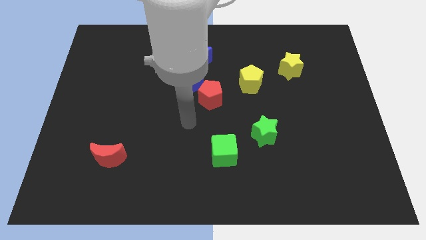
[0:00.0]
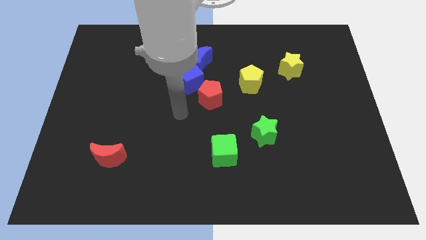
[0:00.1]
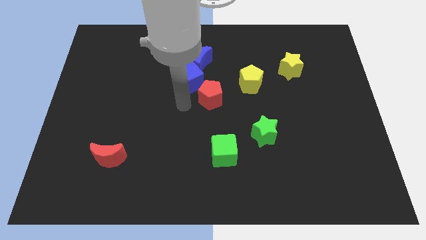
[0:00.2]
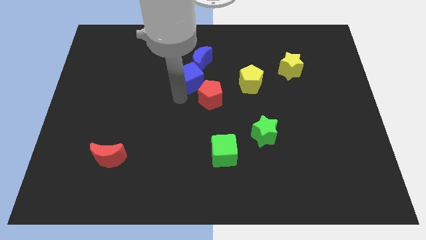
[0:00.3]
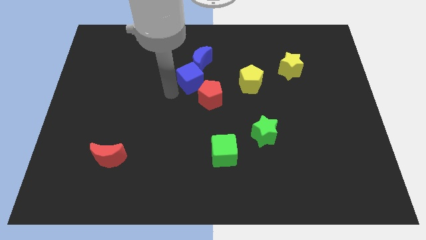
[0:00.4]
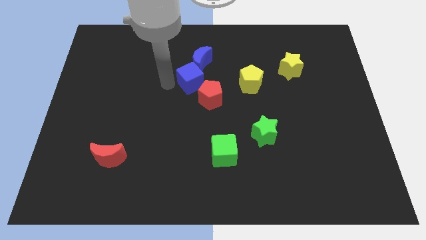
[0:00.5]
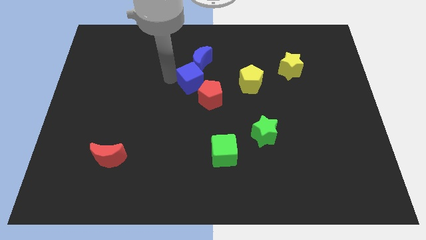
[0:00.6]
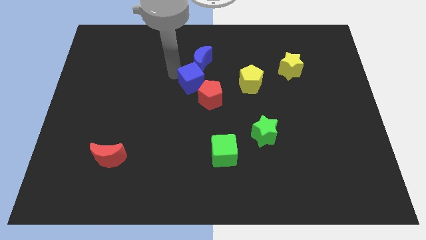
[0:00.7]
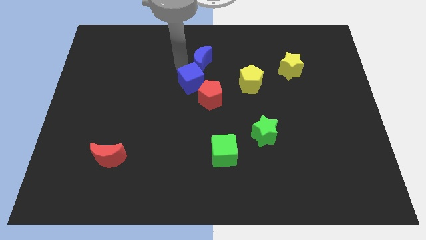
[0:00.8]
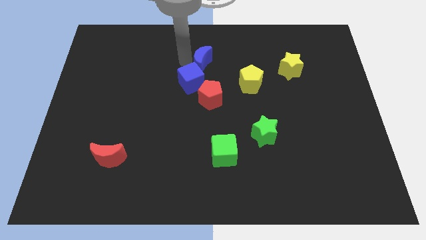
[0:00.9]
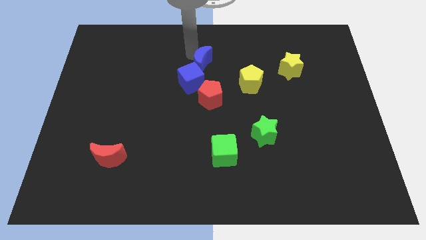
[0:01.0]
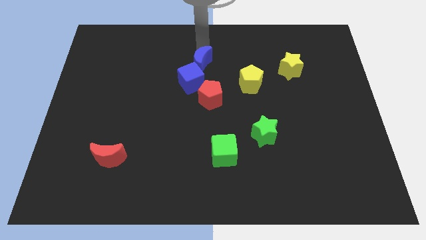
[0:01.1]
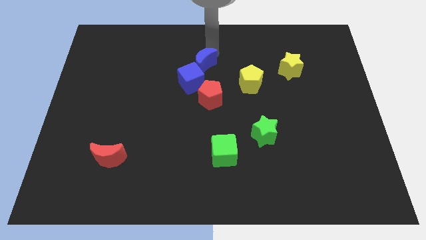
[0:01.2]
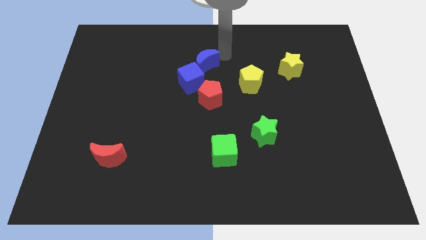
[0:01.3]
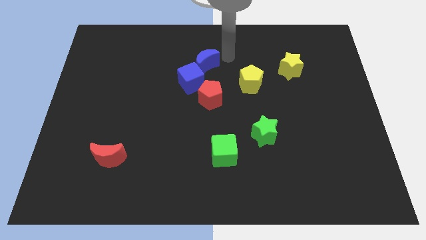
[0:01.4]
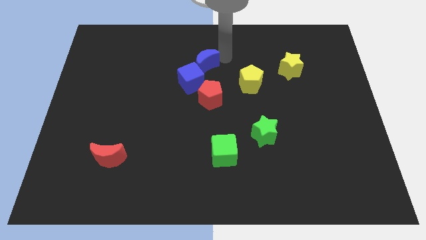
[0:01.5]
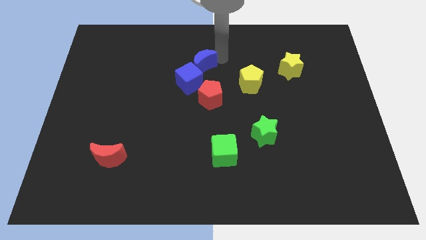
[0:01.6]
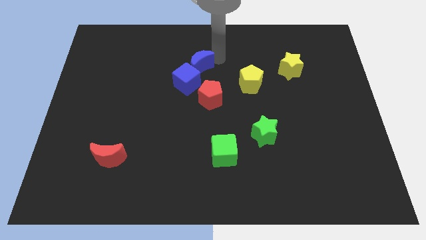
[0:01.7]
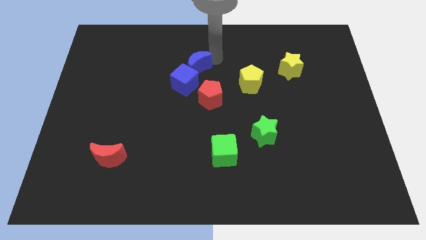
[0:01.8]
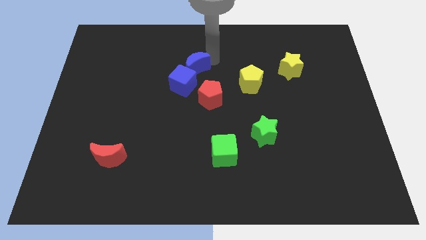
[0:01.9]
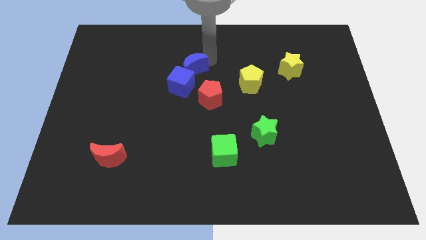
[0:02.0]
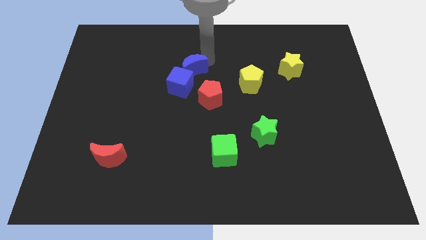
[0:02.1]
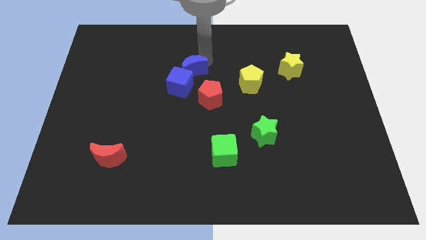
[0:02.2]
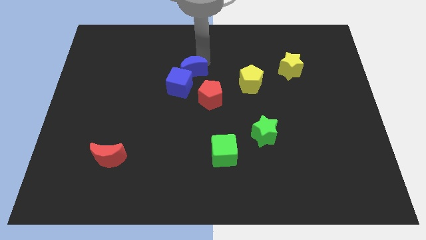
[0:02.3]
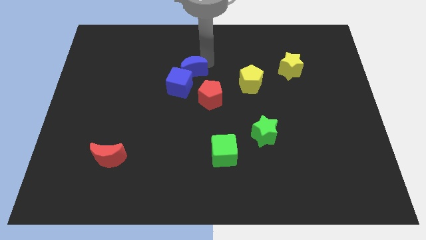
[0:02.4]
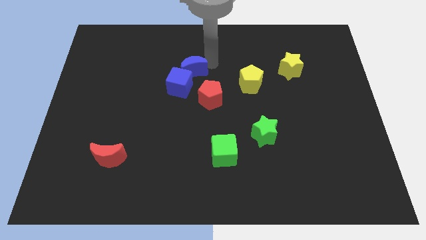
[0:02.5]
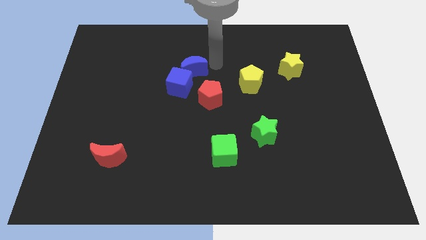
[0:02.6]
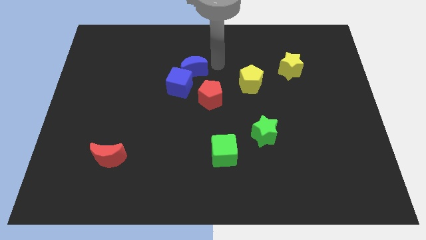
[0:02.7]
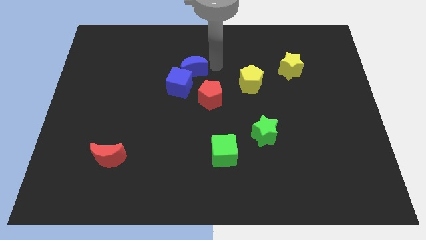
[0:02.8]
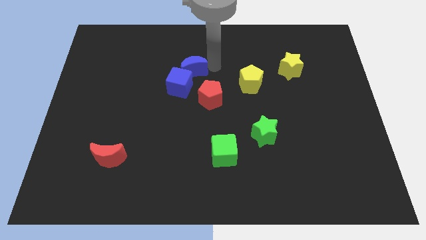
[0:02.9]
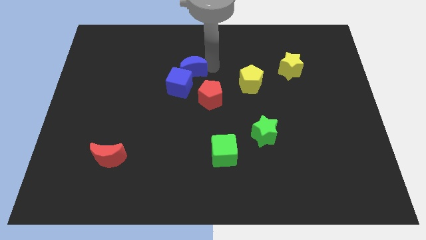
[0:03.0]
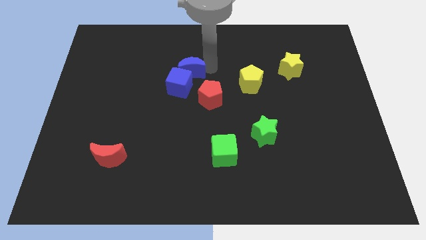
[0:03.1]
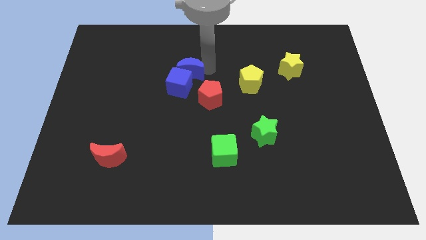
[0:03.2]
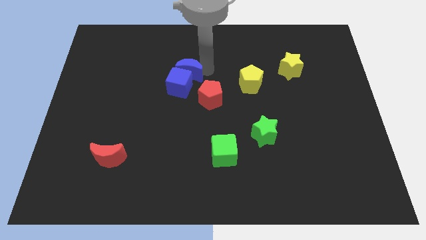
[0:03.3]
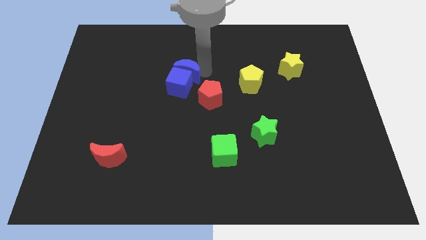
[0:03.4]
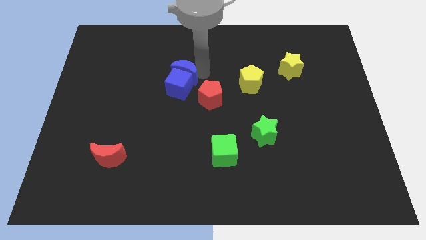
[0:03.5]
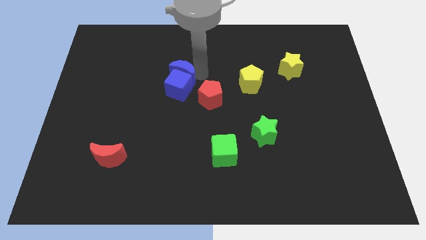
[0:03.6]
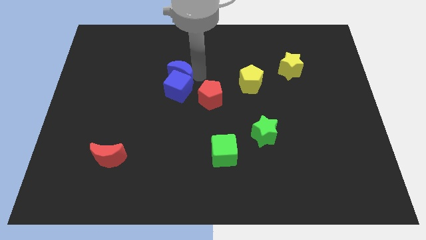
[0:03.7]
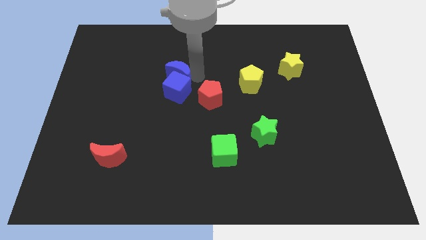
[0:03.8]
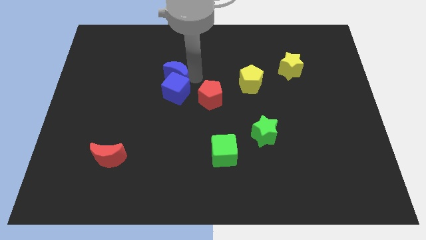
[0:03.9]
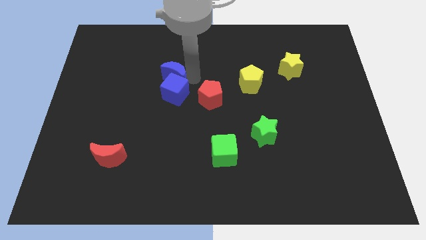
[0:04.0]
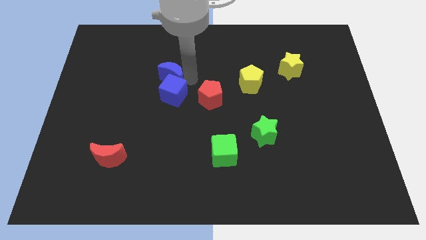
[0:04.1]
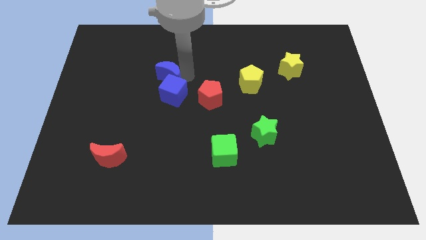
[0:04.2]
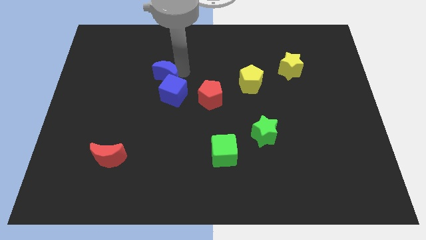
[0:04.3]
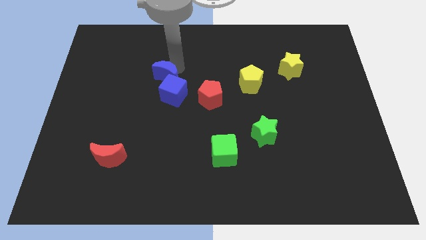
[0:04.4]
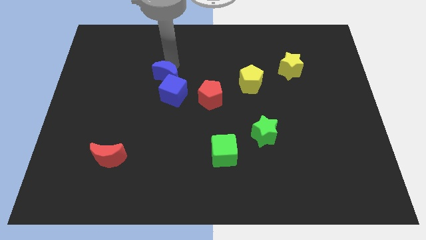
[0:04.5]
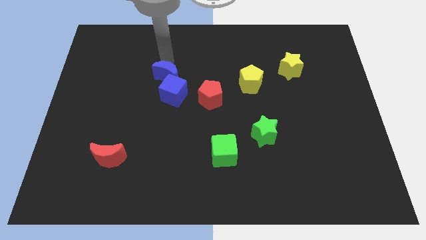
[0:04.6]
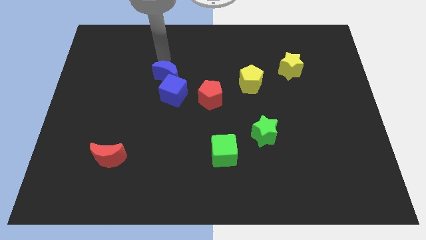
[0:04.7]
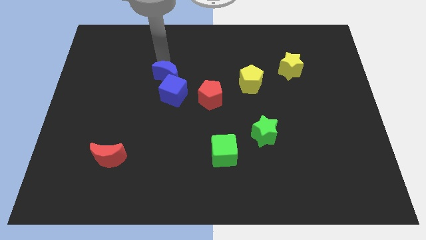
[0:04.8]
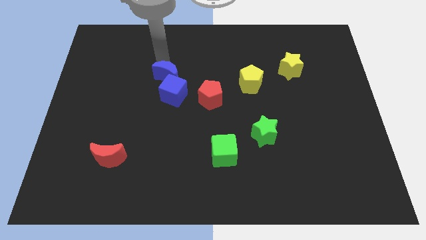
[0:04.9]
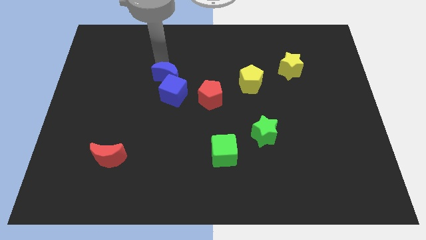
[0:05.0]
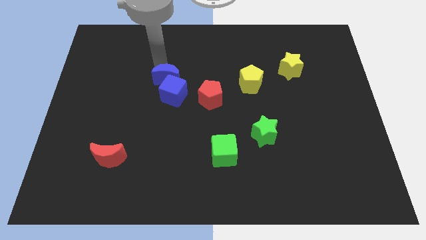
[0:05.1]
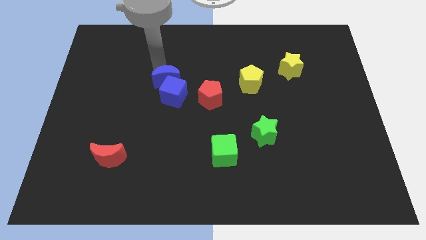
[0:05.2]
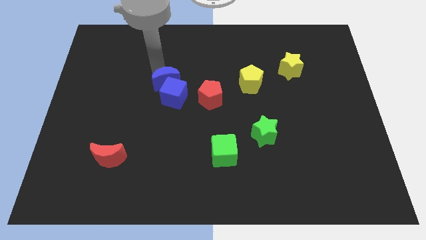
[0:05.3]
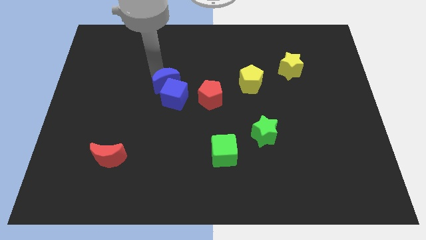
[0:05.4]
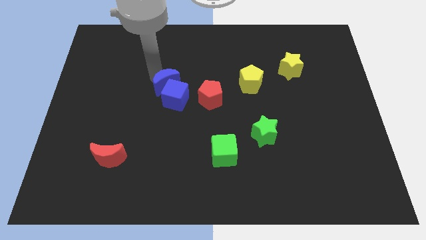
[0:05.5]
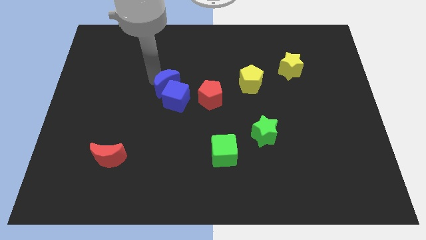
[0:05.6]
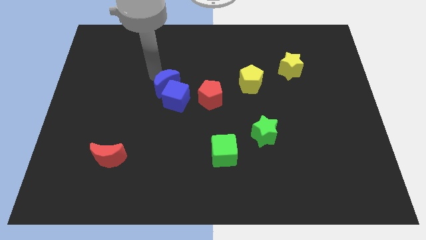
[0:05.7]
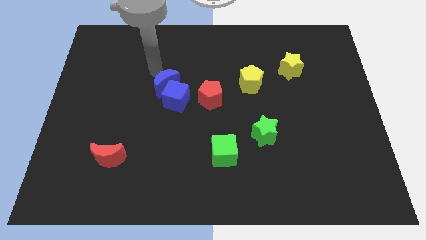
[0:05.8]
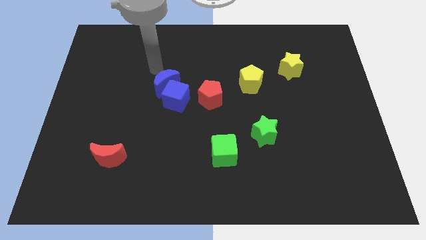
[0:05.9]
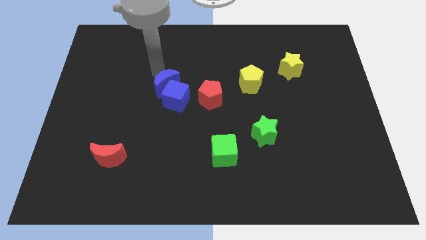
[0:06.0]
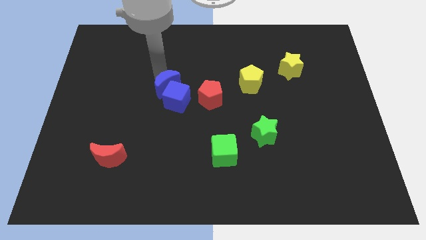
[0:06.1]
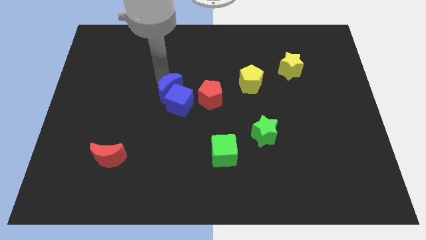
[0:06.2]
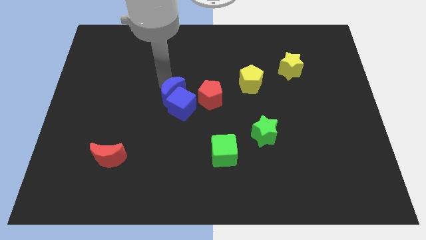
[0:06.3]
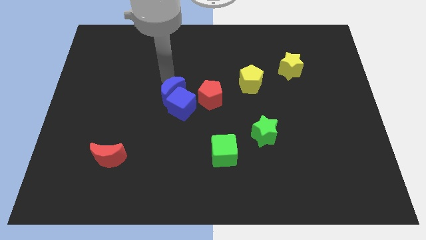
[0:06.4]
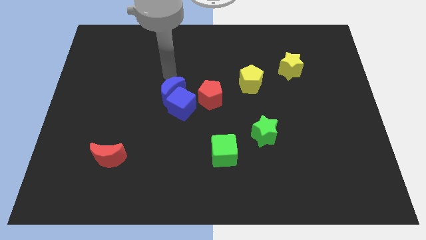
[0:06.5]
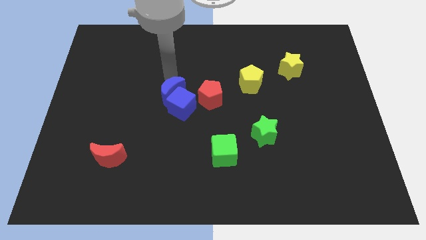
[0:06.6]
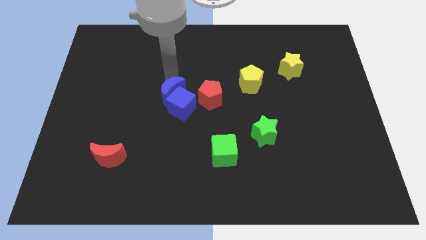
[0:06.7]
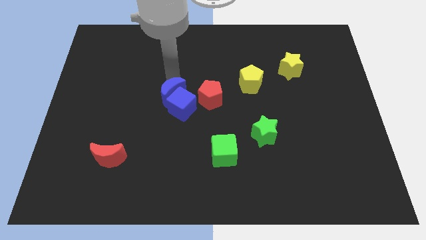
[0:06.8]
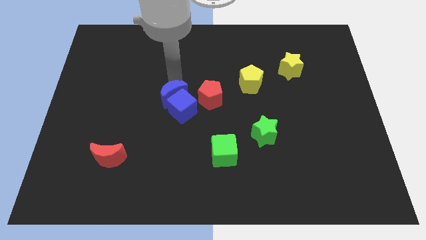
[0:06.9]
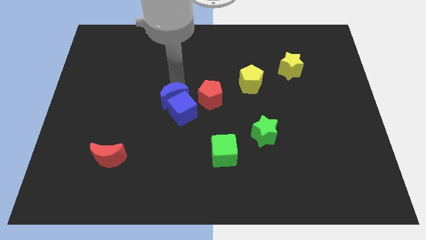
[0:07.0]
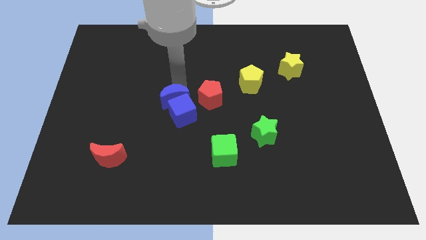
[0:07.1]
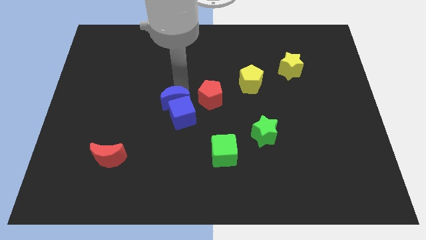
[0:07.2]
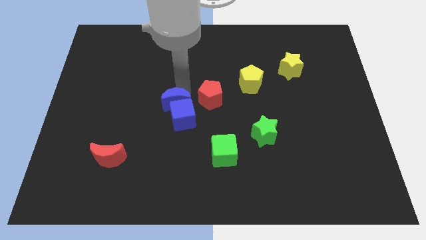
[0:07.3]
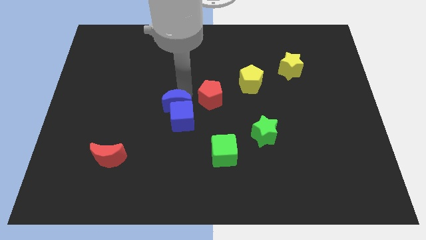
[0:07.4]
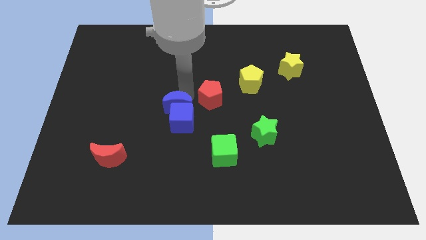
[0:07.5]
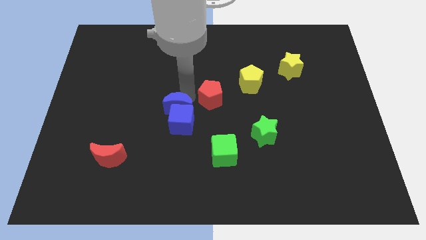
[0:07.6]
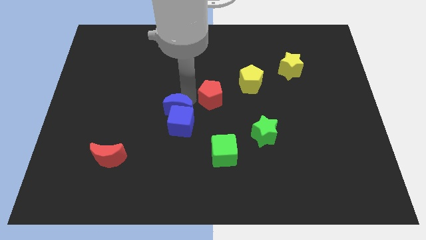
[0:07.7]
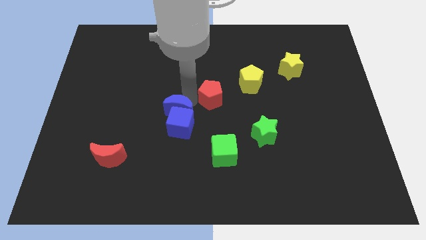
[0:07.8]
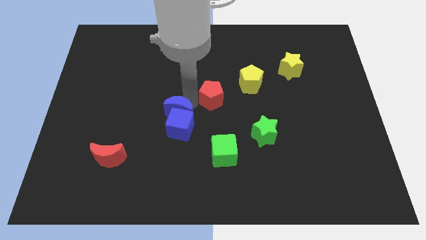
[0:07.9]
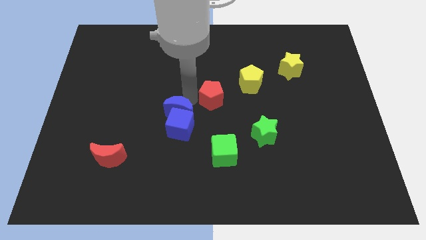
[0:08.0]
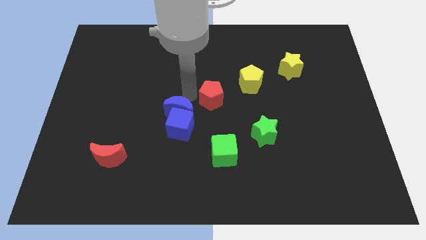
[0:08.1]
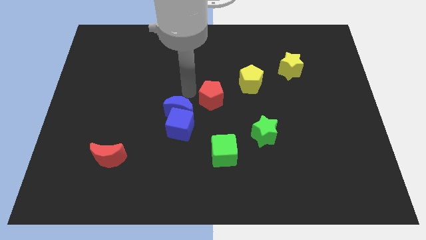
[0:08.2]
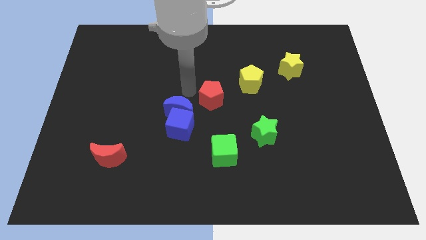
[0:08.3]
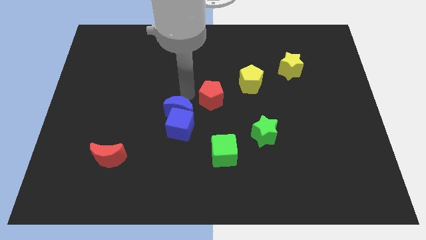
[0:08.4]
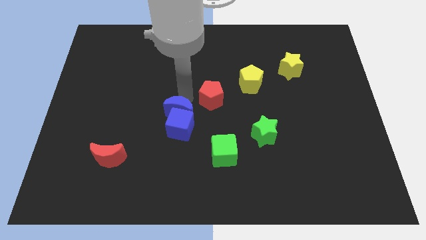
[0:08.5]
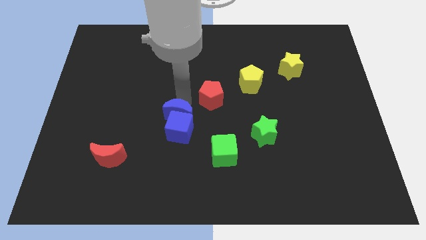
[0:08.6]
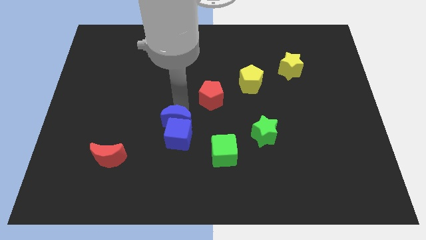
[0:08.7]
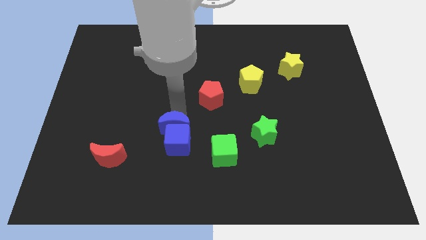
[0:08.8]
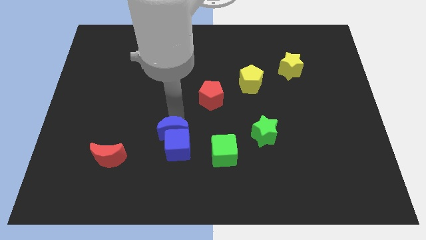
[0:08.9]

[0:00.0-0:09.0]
move the blue moon down
